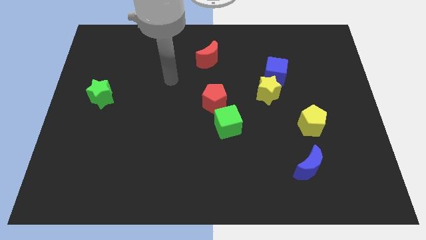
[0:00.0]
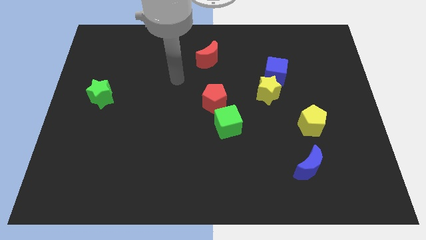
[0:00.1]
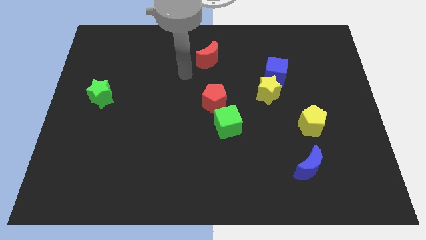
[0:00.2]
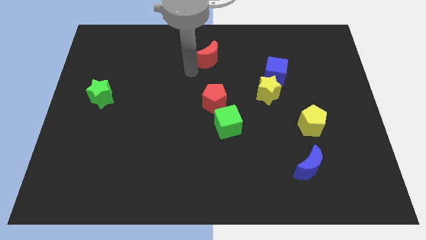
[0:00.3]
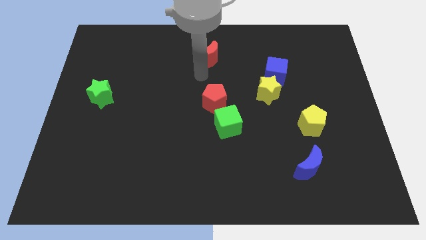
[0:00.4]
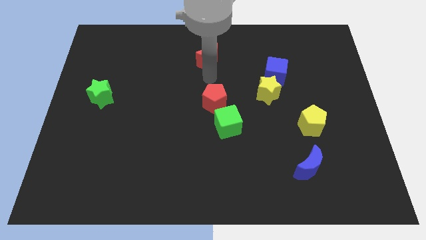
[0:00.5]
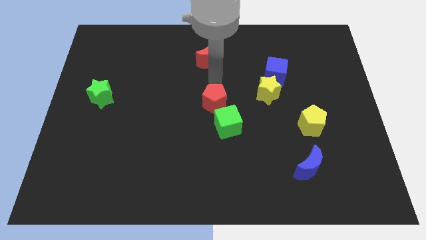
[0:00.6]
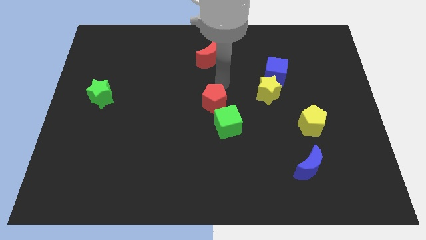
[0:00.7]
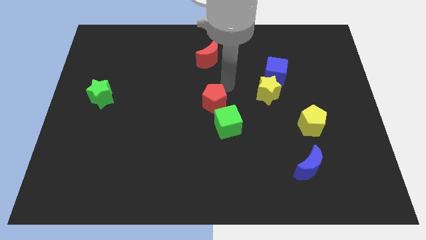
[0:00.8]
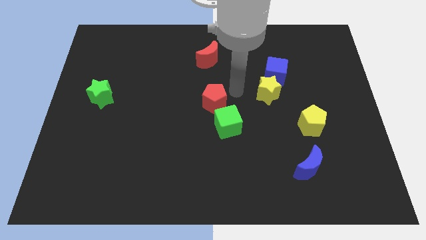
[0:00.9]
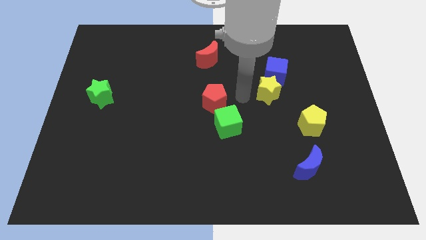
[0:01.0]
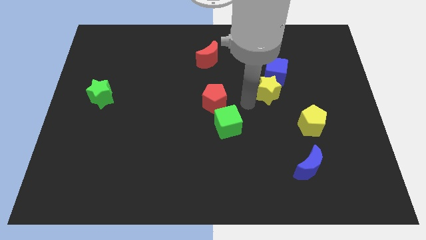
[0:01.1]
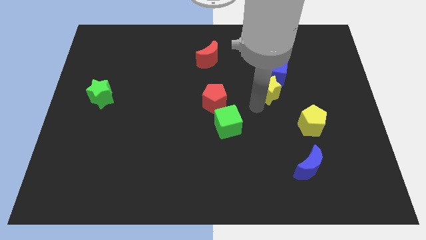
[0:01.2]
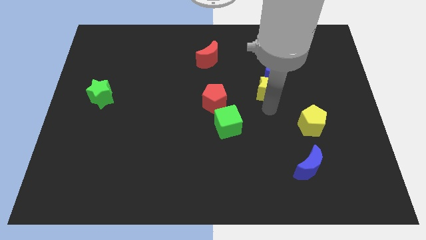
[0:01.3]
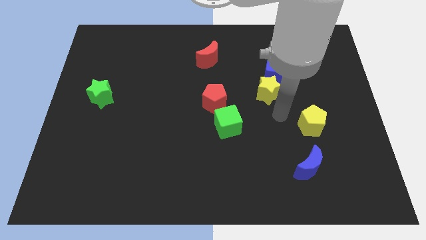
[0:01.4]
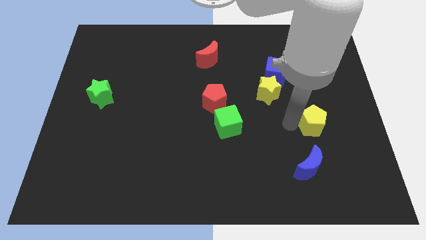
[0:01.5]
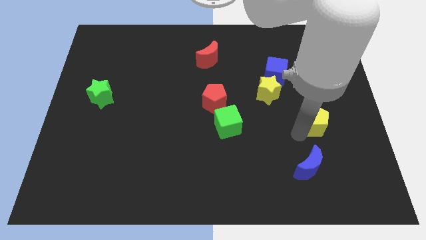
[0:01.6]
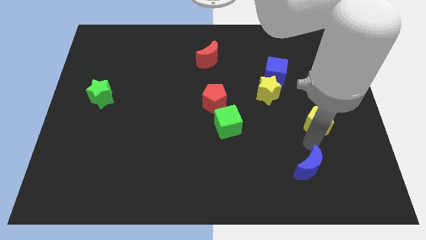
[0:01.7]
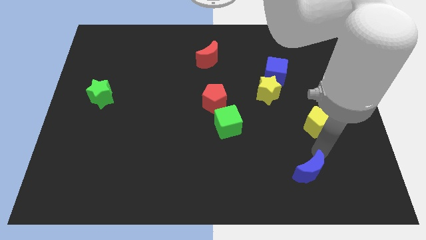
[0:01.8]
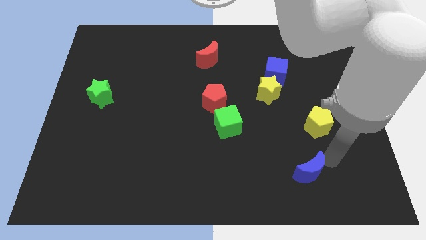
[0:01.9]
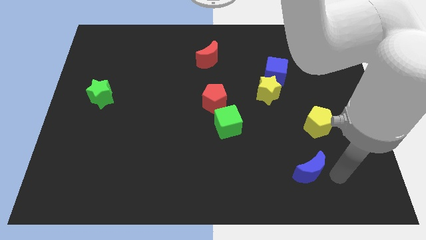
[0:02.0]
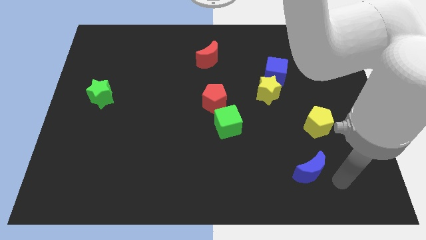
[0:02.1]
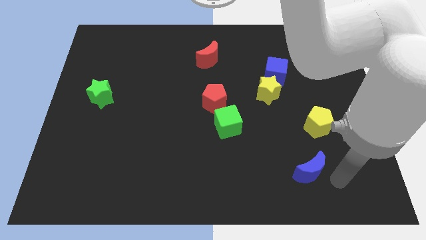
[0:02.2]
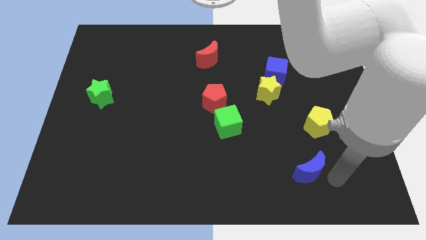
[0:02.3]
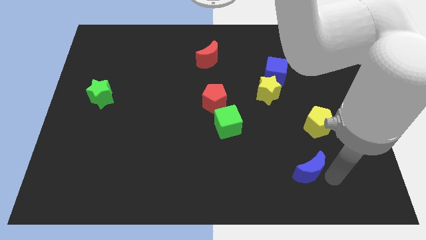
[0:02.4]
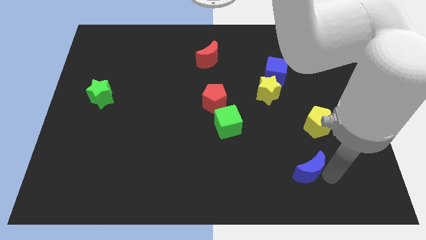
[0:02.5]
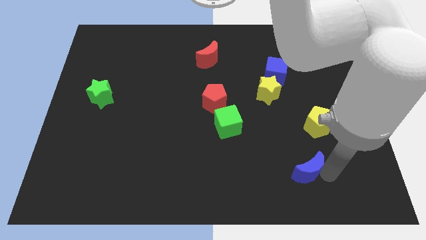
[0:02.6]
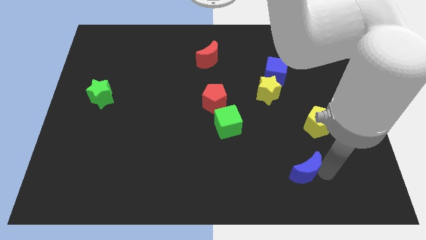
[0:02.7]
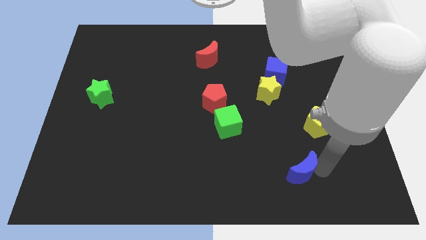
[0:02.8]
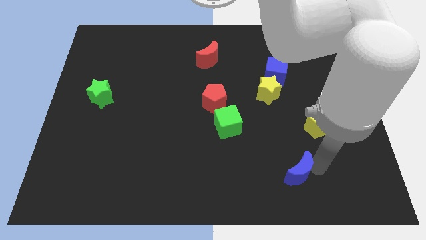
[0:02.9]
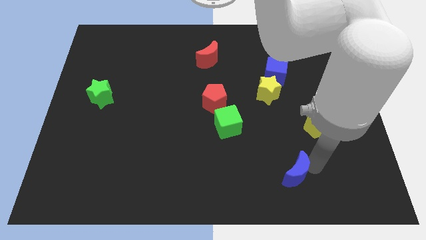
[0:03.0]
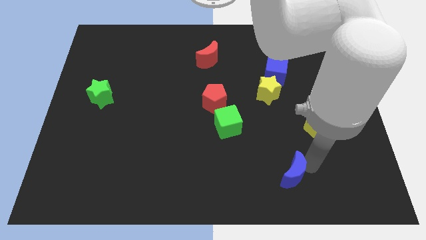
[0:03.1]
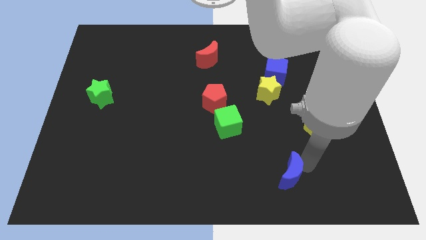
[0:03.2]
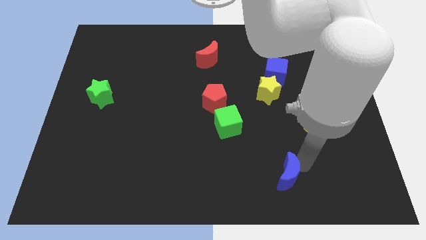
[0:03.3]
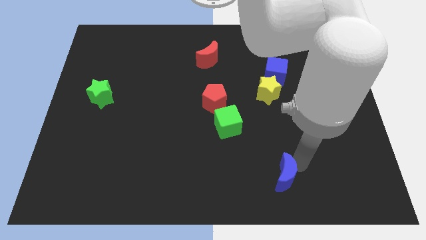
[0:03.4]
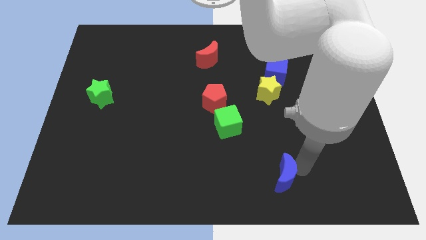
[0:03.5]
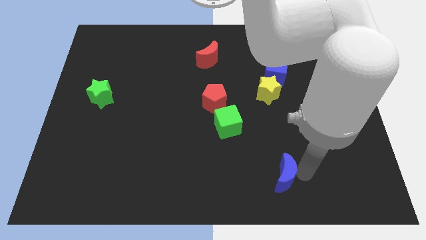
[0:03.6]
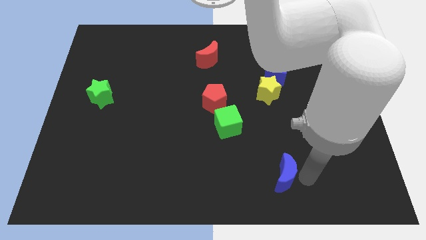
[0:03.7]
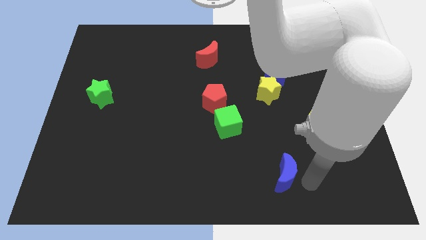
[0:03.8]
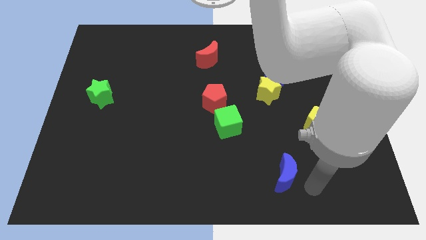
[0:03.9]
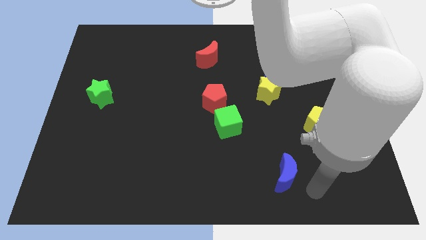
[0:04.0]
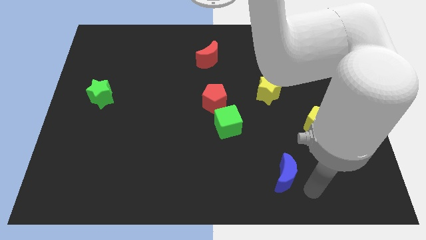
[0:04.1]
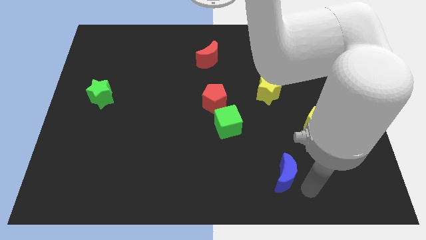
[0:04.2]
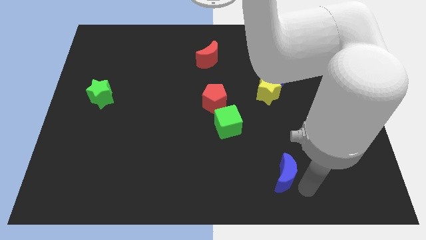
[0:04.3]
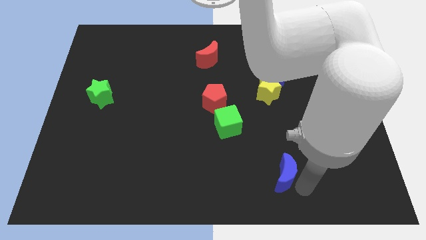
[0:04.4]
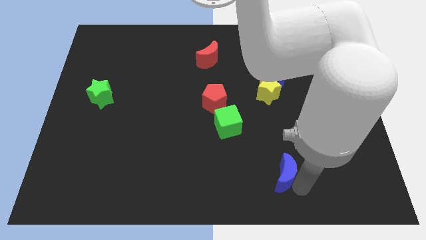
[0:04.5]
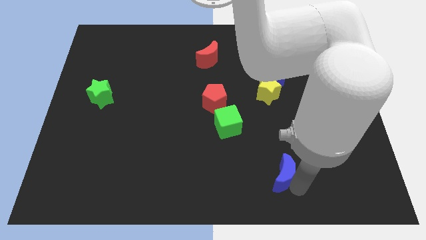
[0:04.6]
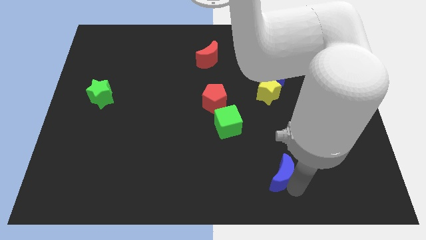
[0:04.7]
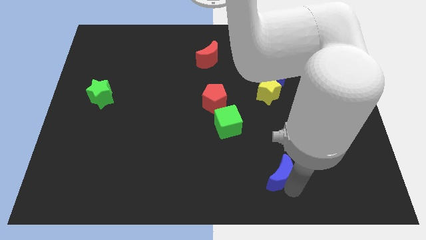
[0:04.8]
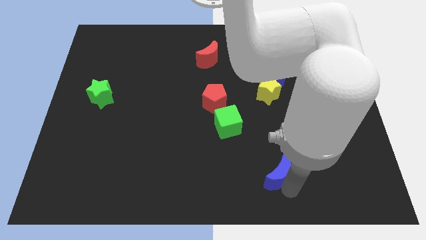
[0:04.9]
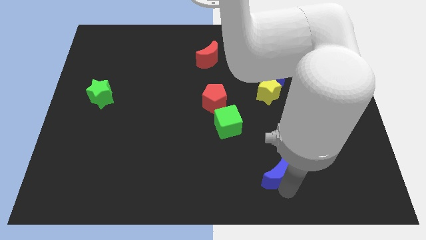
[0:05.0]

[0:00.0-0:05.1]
push the blue moon a bit left

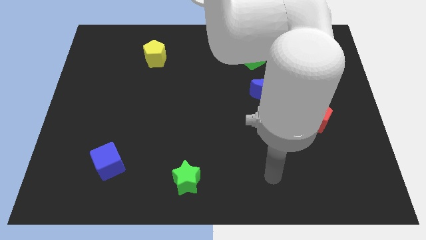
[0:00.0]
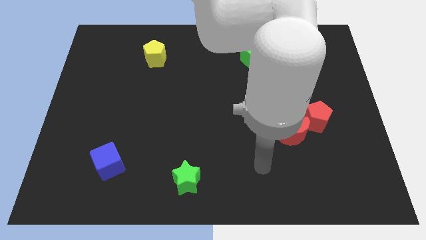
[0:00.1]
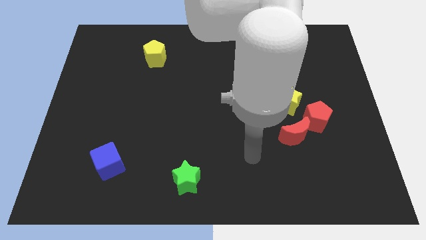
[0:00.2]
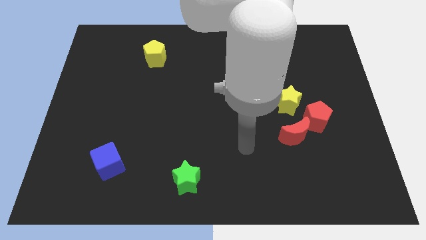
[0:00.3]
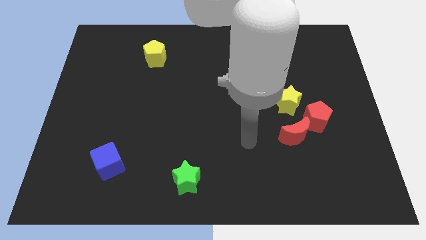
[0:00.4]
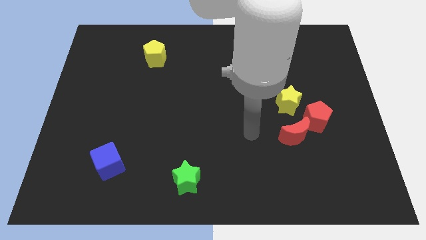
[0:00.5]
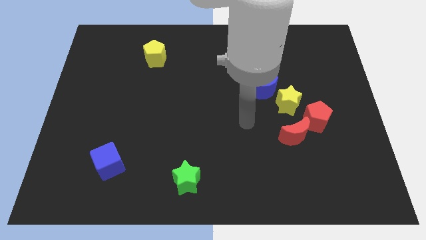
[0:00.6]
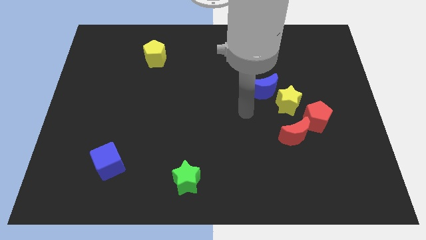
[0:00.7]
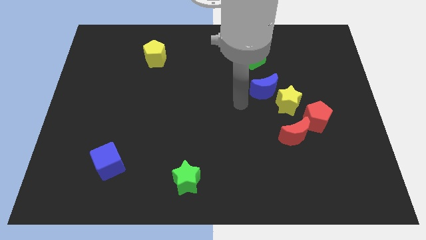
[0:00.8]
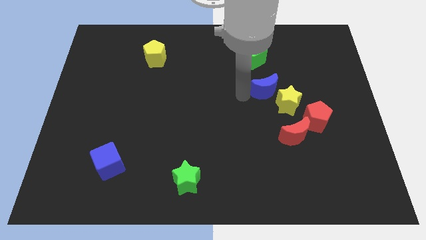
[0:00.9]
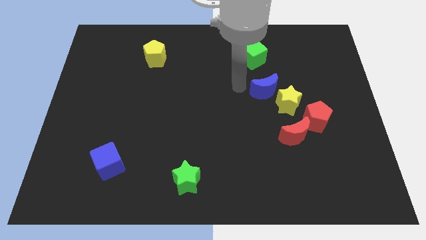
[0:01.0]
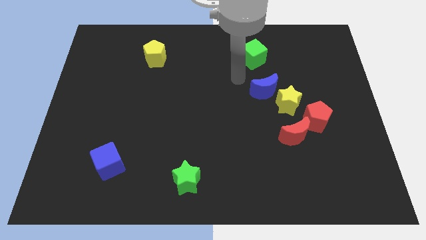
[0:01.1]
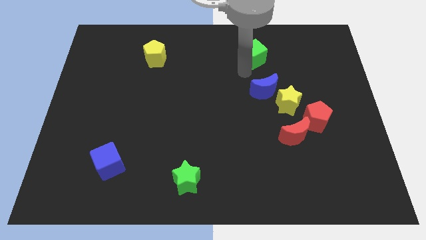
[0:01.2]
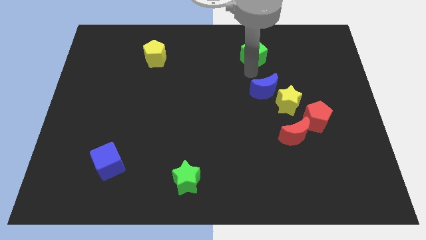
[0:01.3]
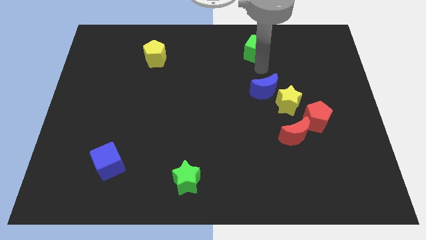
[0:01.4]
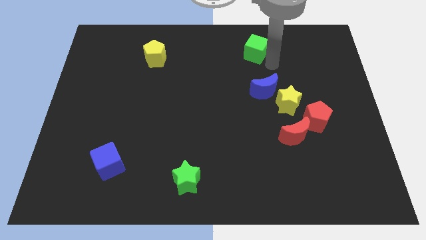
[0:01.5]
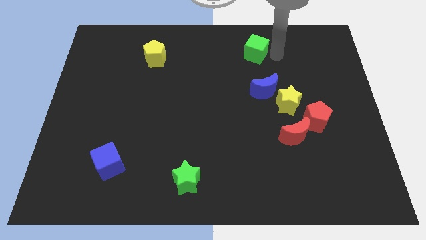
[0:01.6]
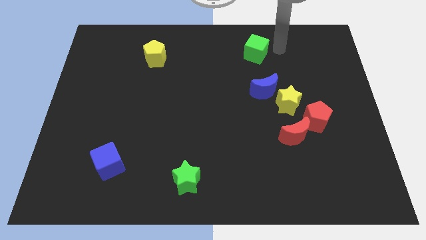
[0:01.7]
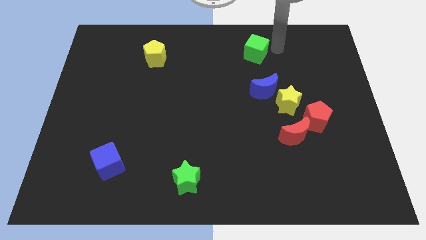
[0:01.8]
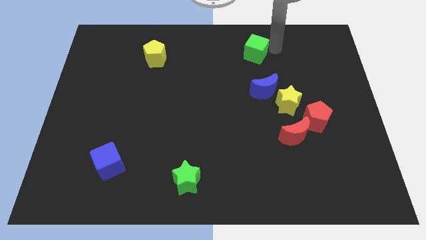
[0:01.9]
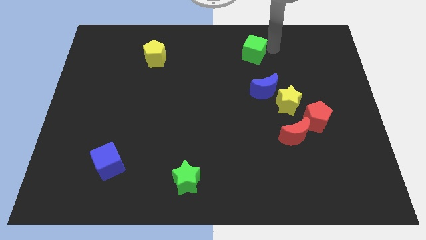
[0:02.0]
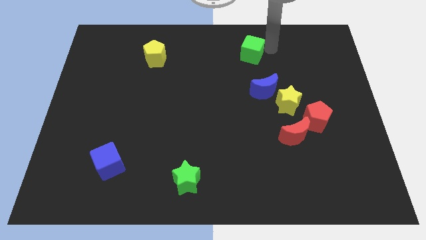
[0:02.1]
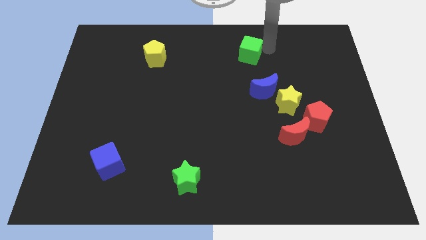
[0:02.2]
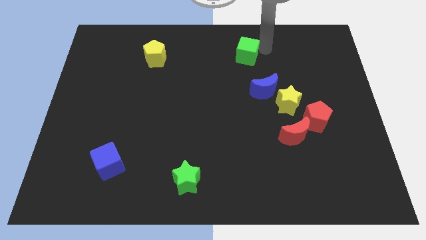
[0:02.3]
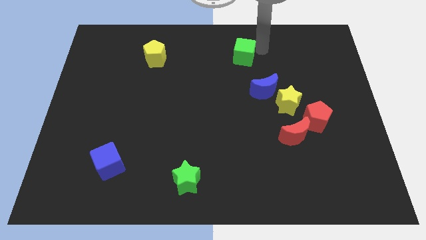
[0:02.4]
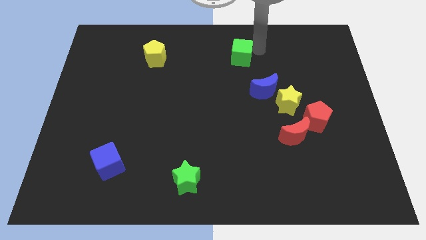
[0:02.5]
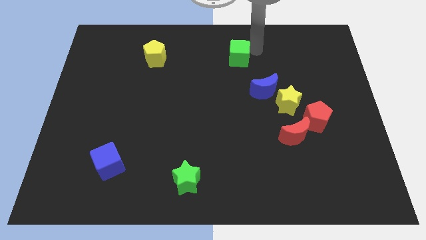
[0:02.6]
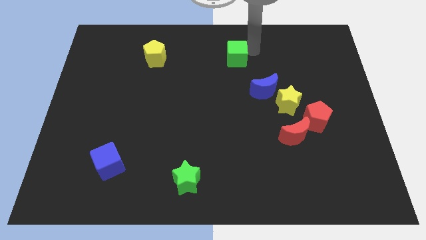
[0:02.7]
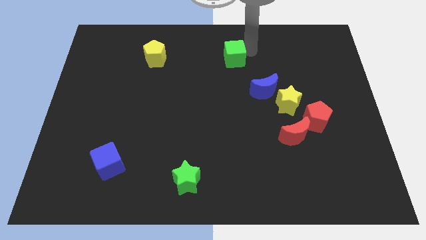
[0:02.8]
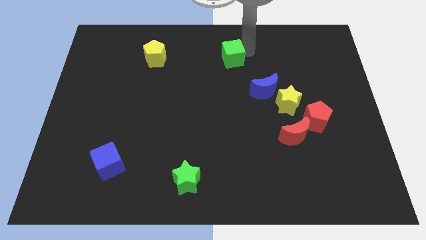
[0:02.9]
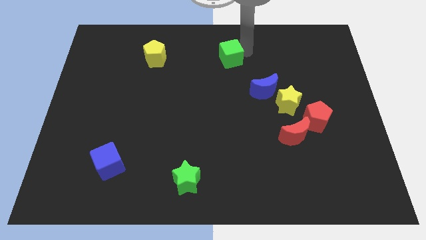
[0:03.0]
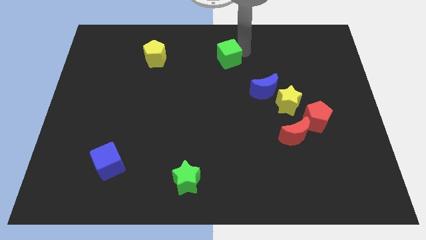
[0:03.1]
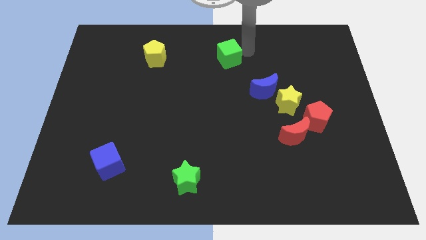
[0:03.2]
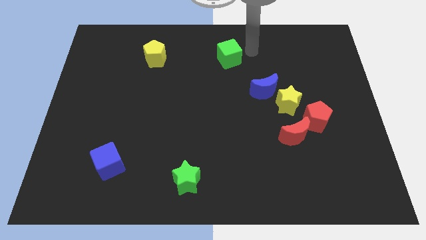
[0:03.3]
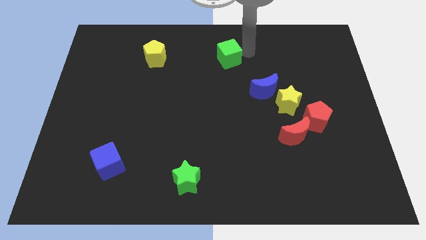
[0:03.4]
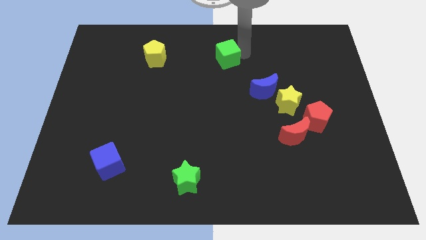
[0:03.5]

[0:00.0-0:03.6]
push the green cube a little left
